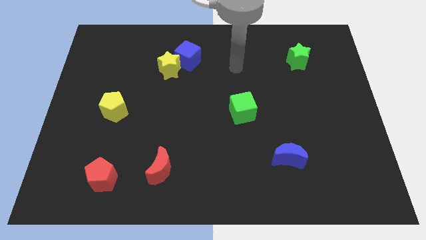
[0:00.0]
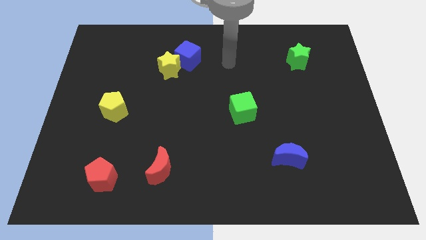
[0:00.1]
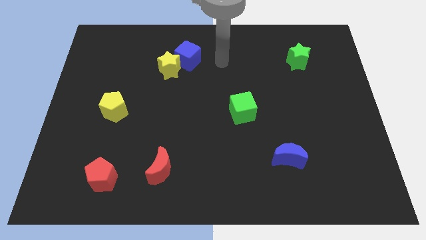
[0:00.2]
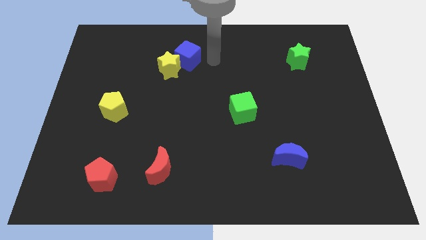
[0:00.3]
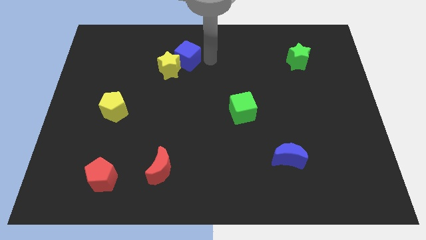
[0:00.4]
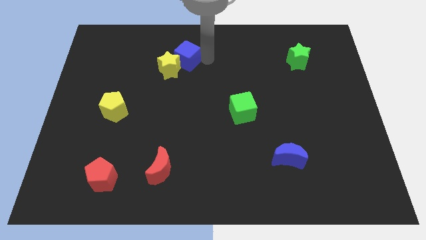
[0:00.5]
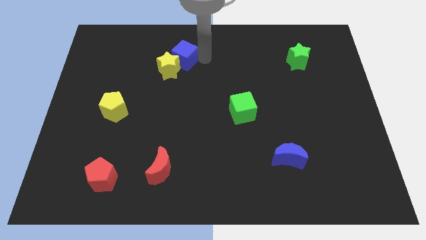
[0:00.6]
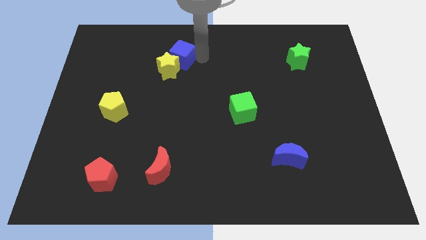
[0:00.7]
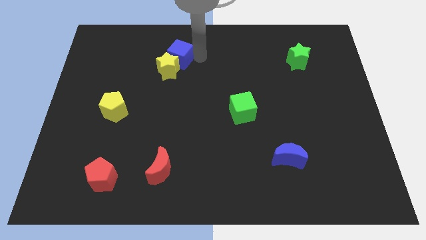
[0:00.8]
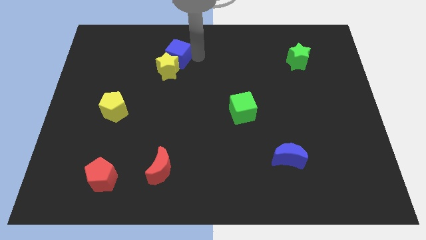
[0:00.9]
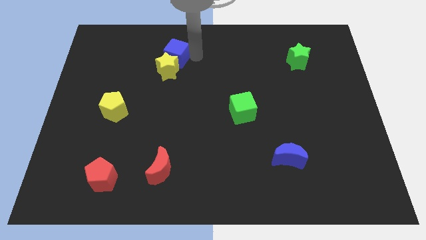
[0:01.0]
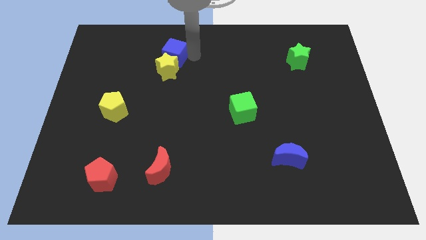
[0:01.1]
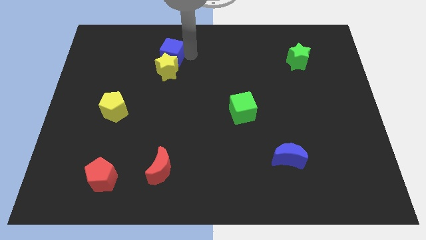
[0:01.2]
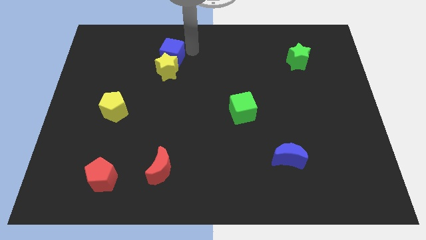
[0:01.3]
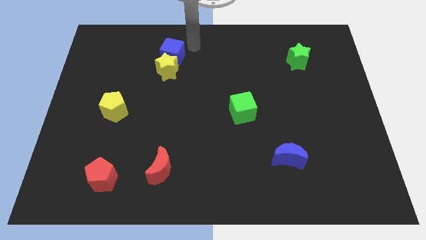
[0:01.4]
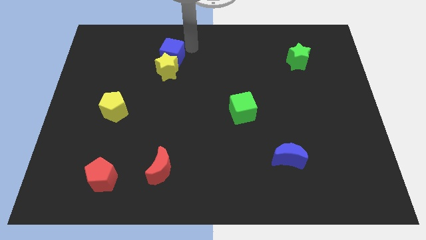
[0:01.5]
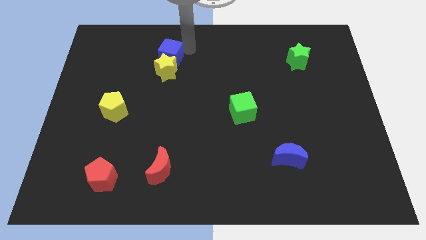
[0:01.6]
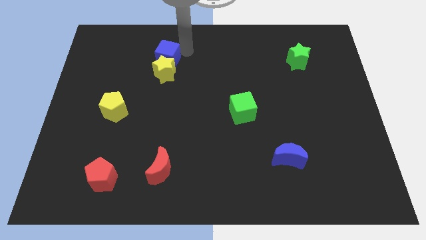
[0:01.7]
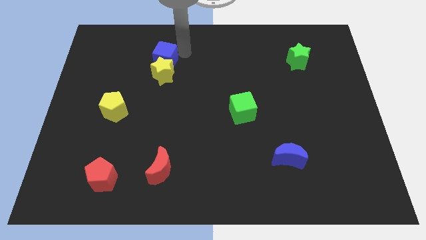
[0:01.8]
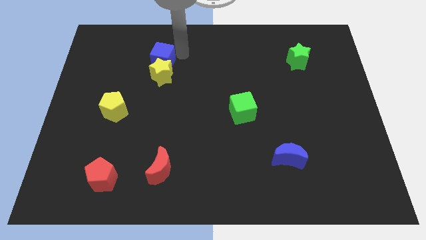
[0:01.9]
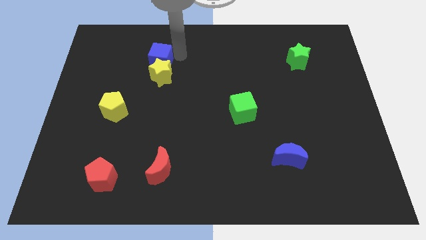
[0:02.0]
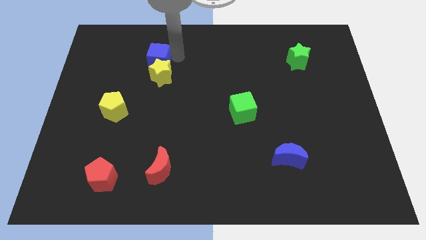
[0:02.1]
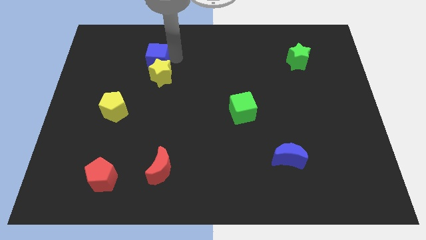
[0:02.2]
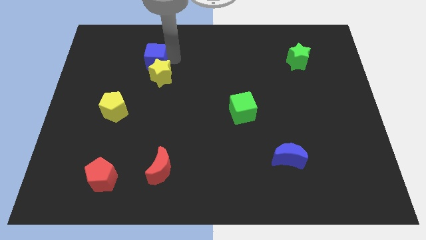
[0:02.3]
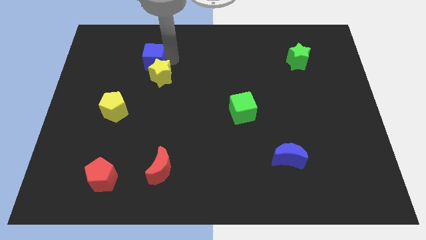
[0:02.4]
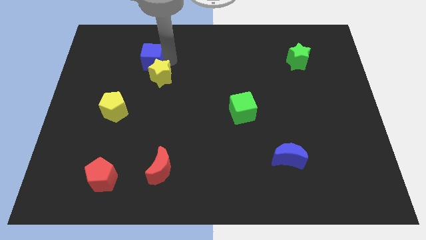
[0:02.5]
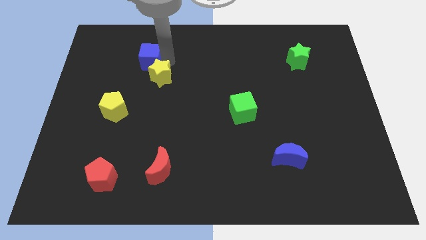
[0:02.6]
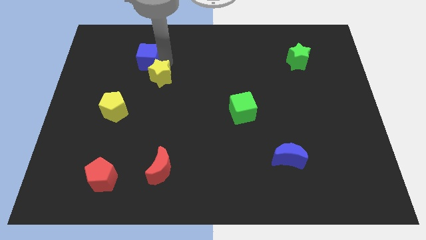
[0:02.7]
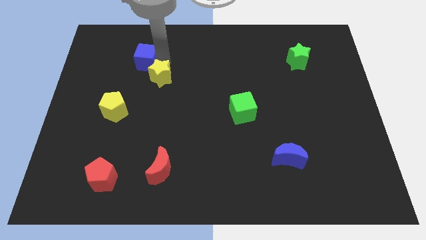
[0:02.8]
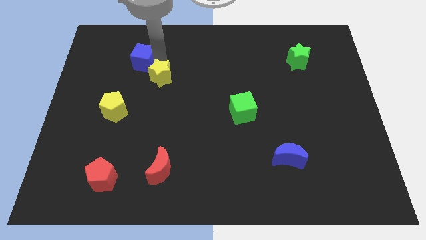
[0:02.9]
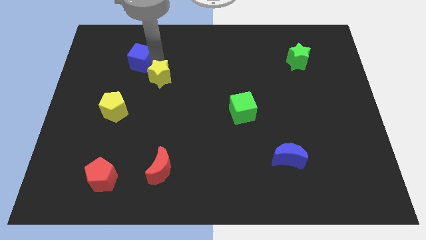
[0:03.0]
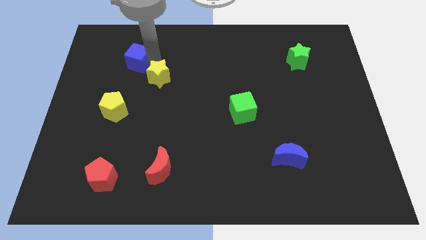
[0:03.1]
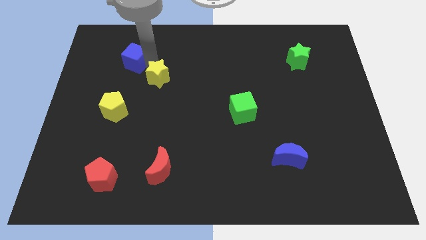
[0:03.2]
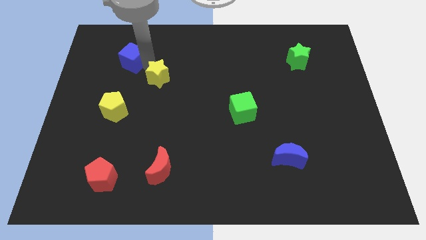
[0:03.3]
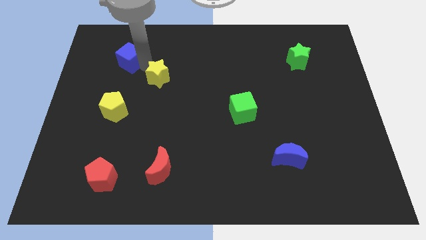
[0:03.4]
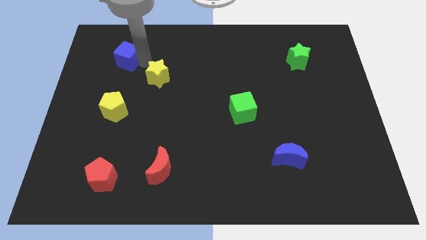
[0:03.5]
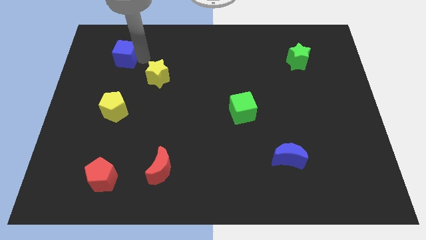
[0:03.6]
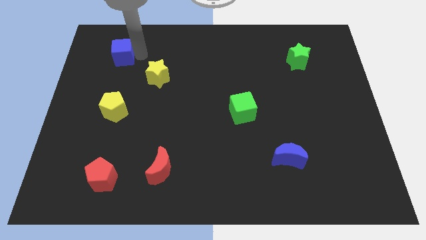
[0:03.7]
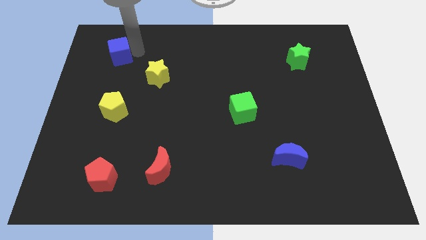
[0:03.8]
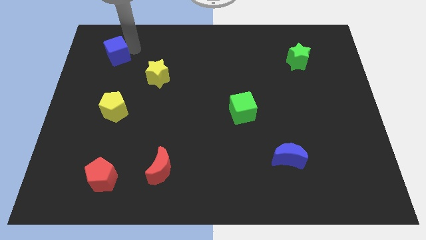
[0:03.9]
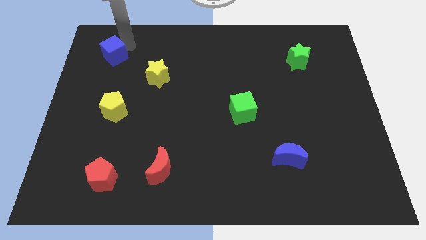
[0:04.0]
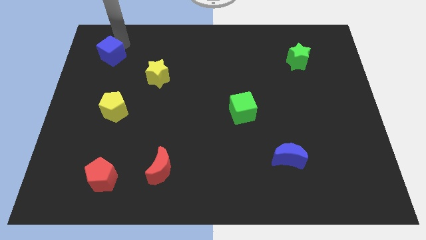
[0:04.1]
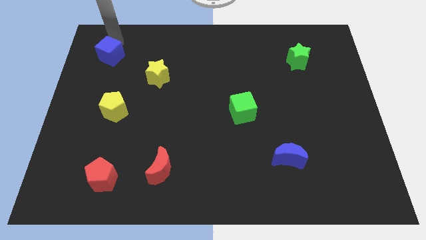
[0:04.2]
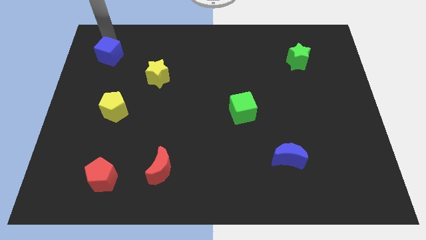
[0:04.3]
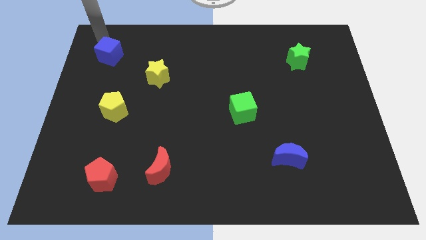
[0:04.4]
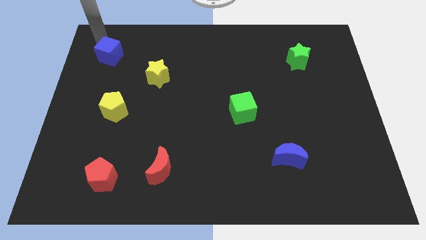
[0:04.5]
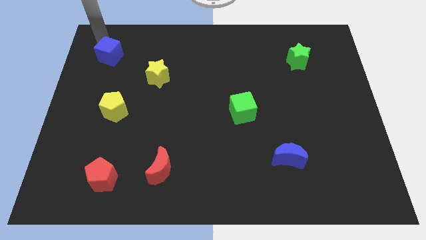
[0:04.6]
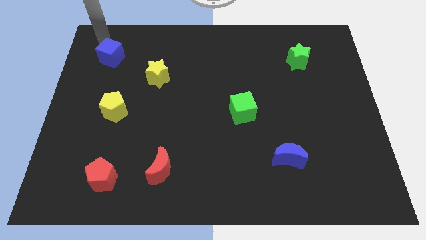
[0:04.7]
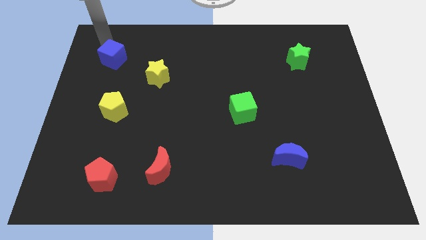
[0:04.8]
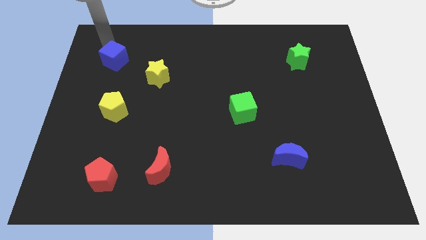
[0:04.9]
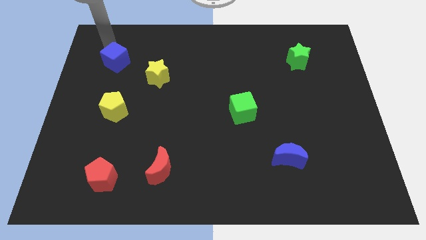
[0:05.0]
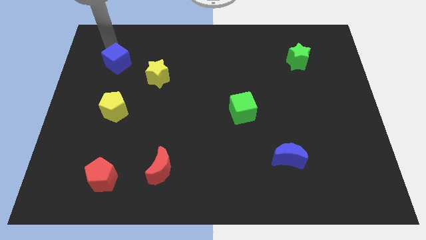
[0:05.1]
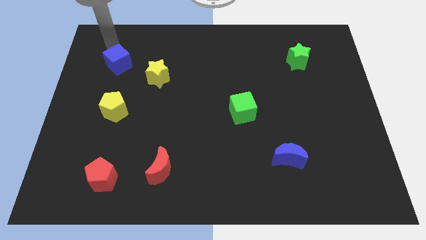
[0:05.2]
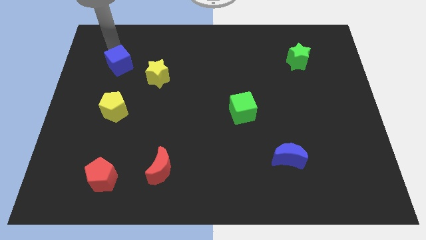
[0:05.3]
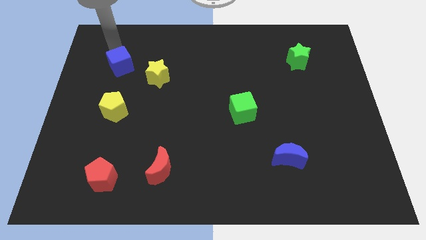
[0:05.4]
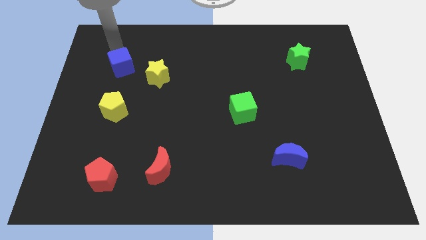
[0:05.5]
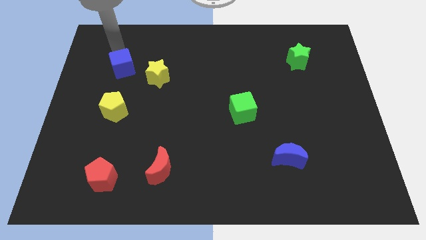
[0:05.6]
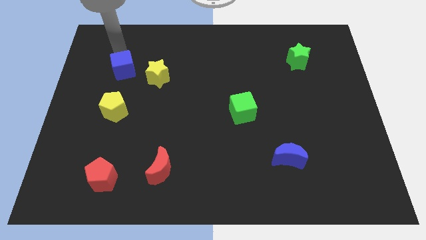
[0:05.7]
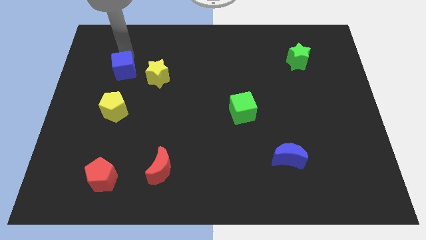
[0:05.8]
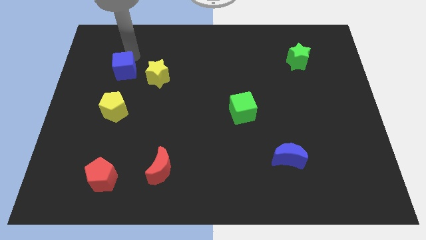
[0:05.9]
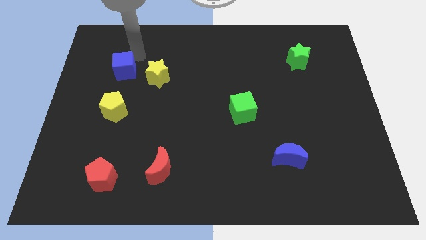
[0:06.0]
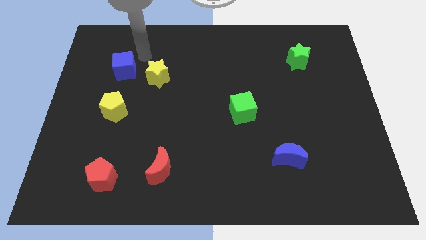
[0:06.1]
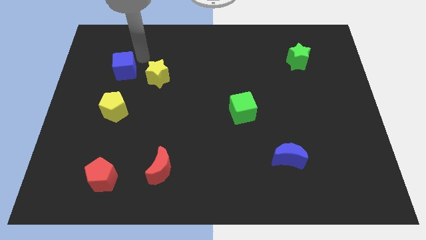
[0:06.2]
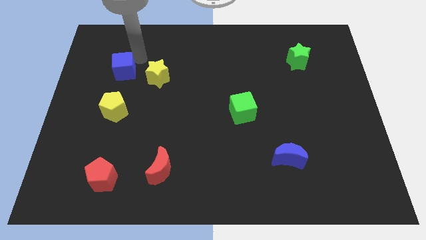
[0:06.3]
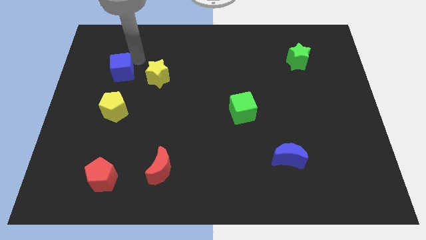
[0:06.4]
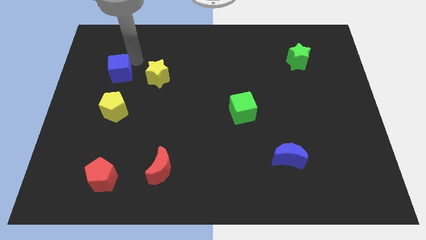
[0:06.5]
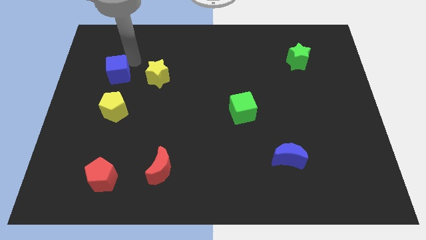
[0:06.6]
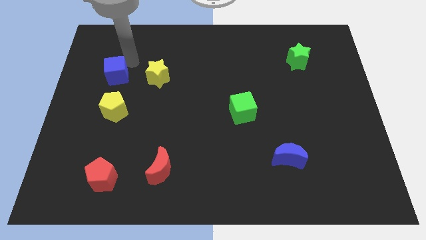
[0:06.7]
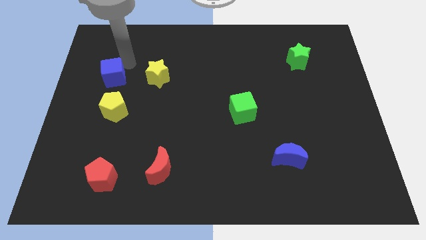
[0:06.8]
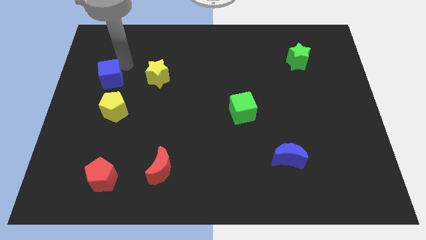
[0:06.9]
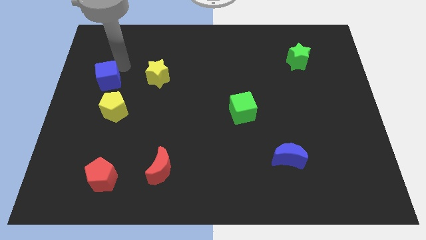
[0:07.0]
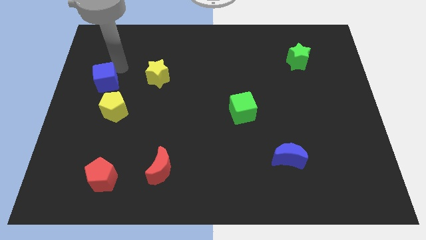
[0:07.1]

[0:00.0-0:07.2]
put the blue cube to the center left
